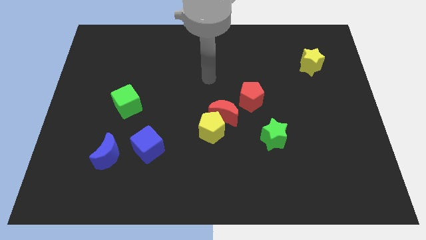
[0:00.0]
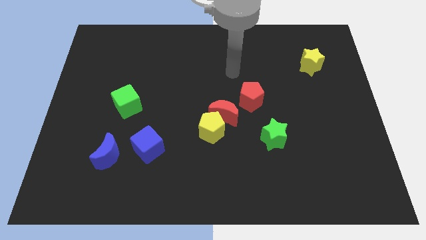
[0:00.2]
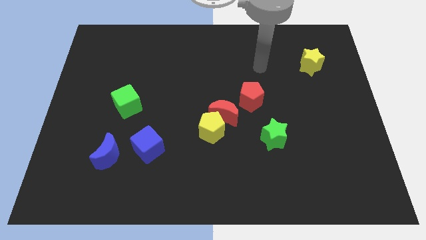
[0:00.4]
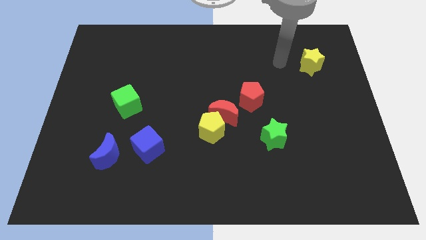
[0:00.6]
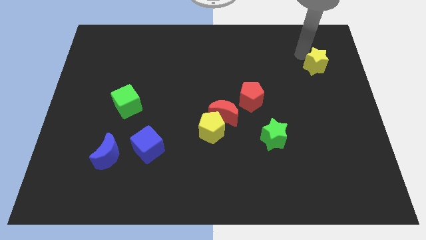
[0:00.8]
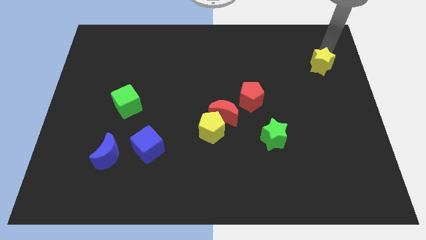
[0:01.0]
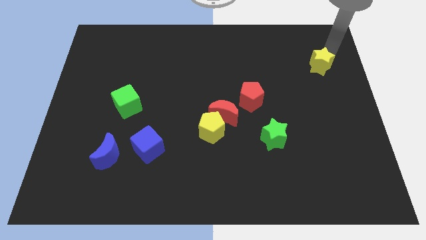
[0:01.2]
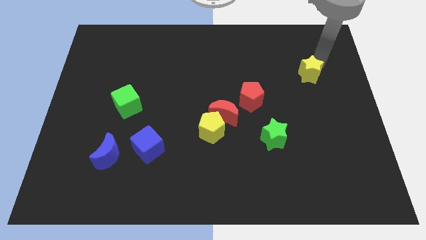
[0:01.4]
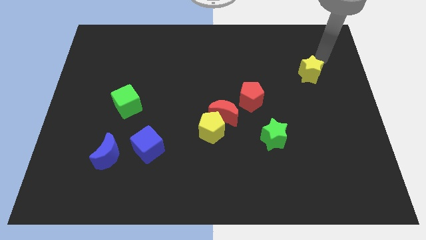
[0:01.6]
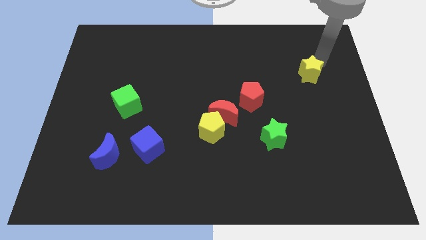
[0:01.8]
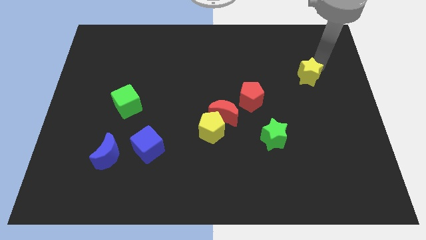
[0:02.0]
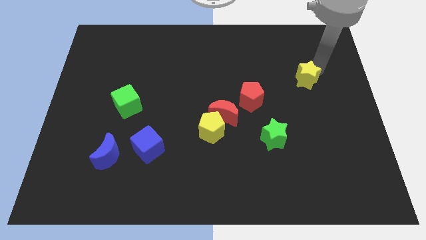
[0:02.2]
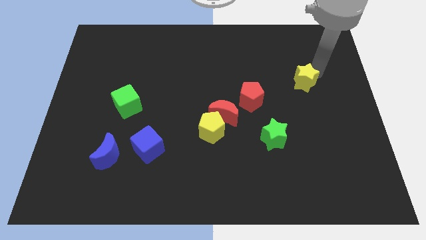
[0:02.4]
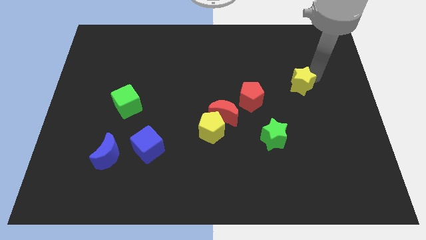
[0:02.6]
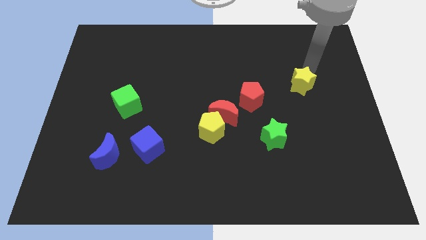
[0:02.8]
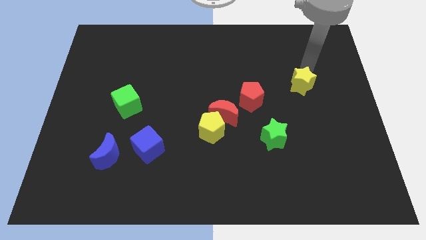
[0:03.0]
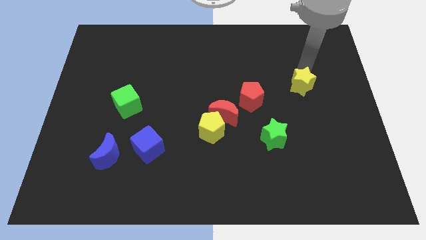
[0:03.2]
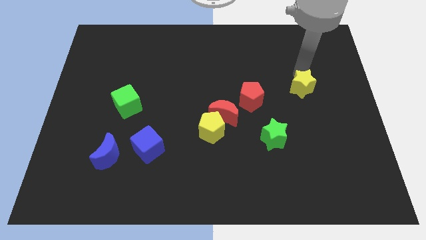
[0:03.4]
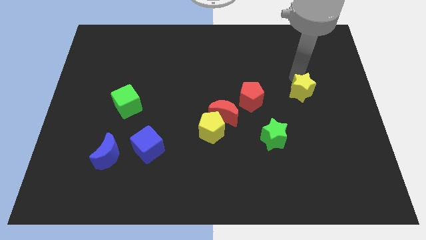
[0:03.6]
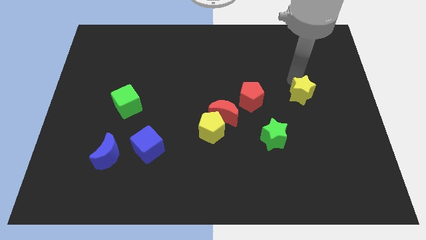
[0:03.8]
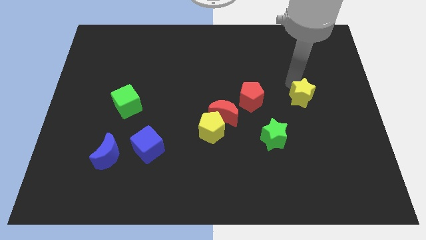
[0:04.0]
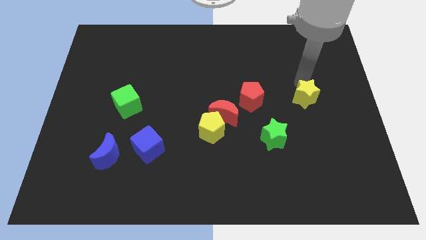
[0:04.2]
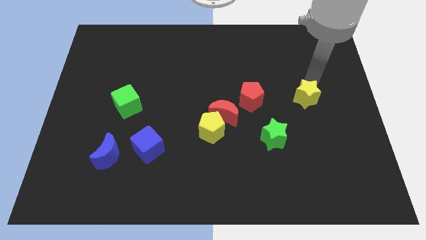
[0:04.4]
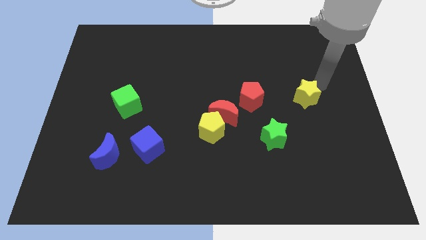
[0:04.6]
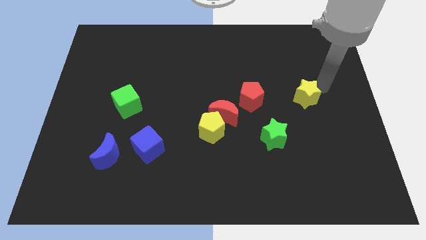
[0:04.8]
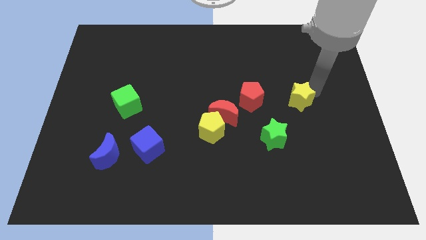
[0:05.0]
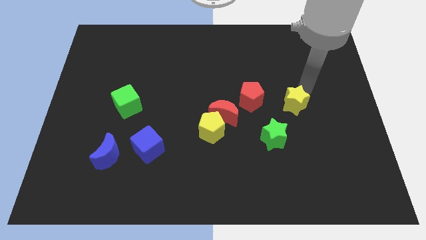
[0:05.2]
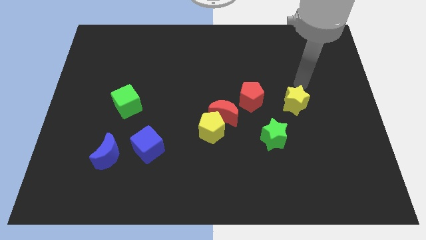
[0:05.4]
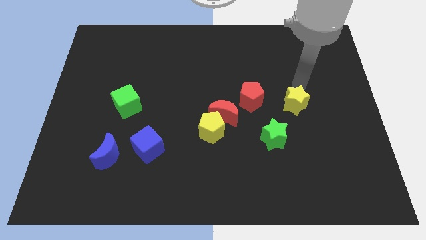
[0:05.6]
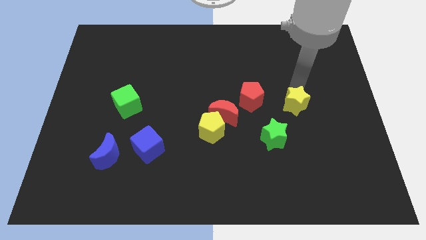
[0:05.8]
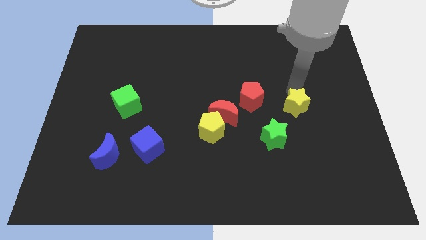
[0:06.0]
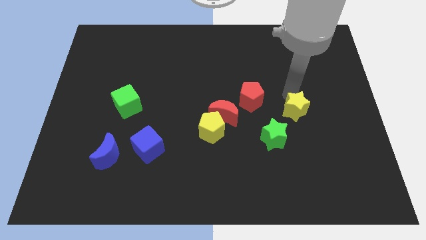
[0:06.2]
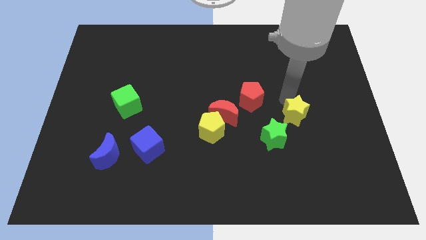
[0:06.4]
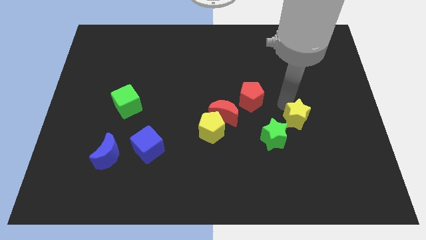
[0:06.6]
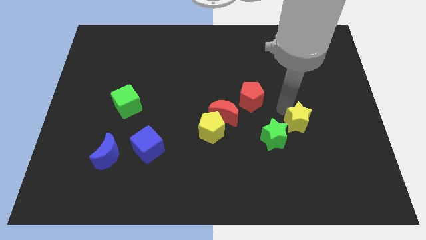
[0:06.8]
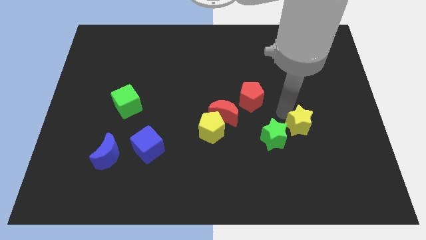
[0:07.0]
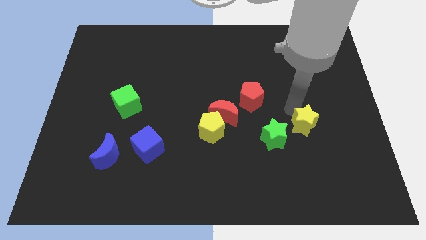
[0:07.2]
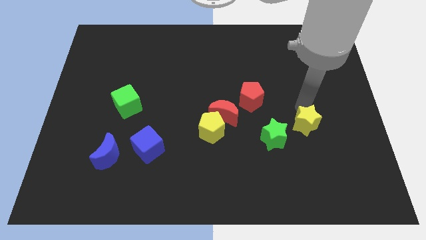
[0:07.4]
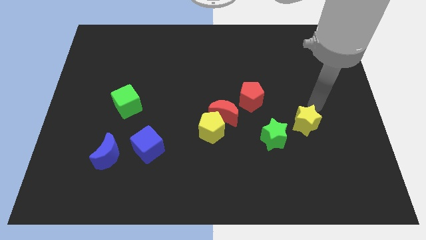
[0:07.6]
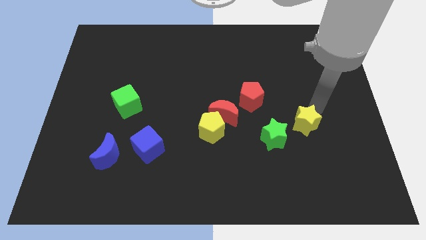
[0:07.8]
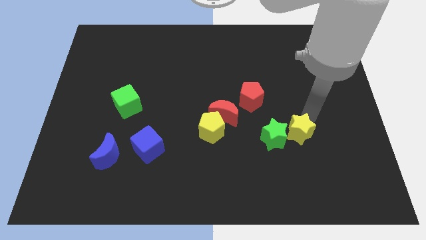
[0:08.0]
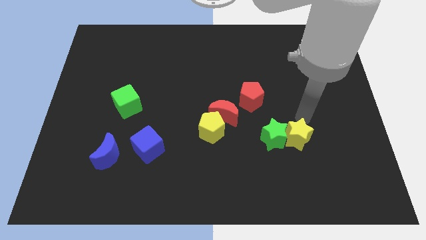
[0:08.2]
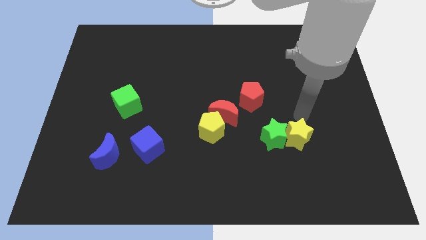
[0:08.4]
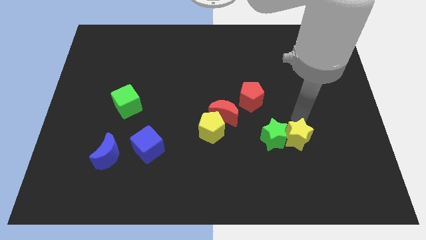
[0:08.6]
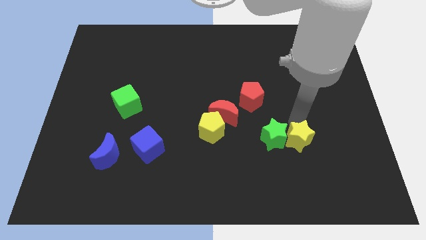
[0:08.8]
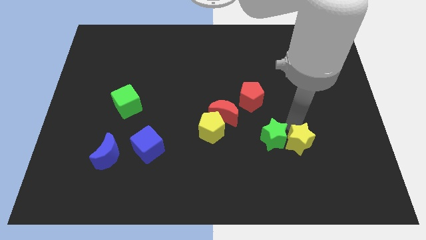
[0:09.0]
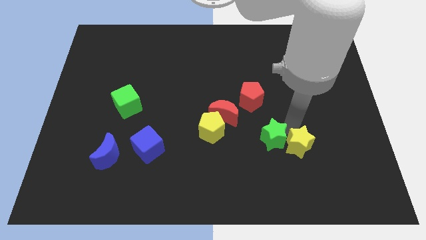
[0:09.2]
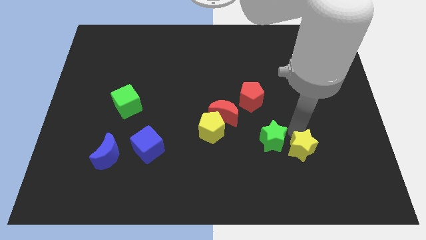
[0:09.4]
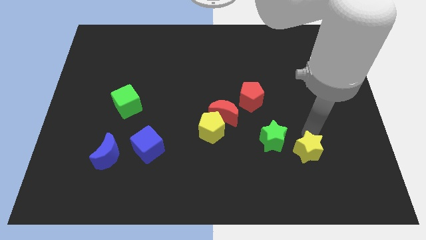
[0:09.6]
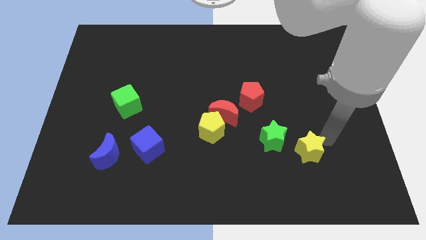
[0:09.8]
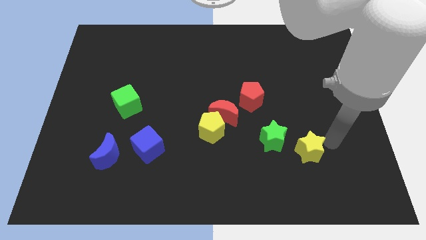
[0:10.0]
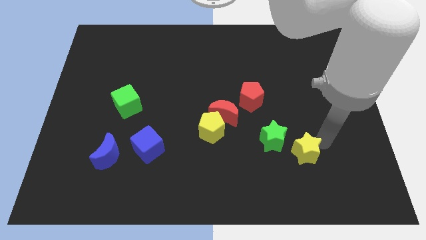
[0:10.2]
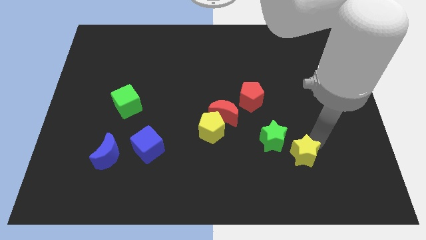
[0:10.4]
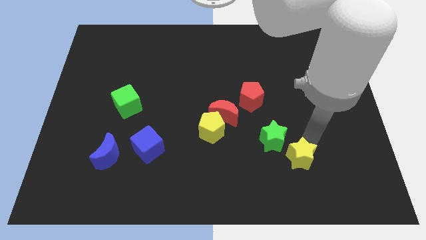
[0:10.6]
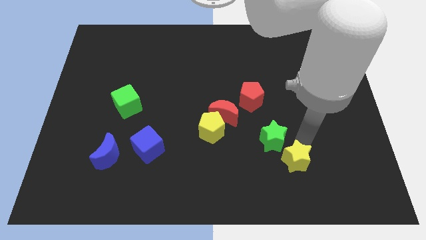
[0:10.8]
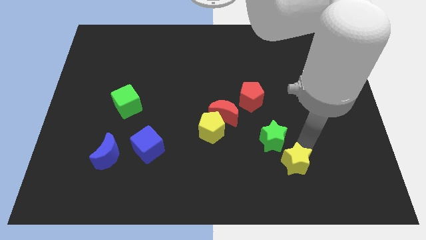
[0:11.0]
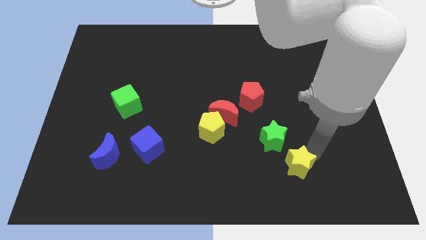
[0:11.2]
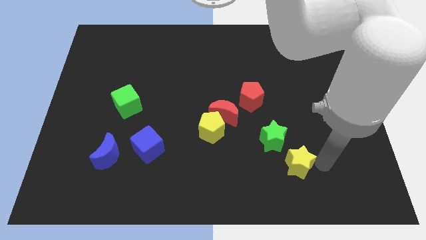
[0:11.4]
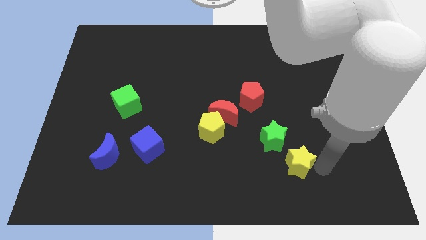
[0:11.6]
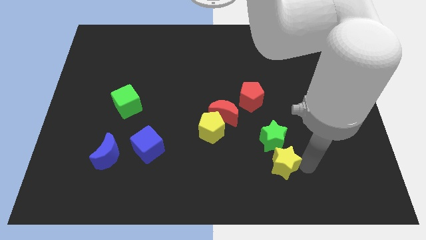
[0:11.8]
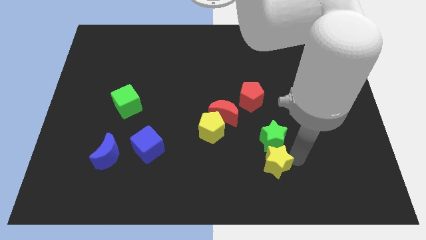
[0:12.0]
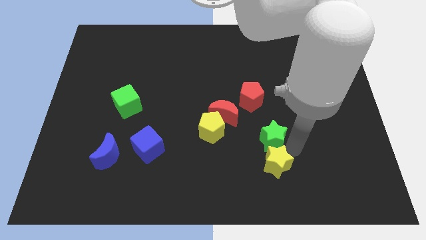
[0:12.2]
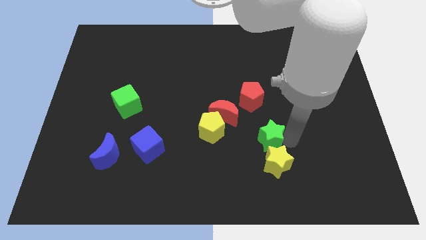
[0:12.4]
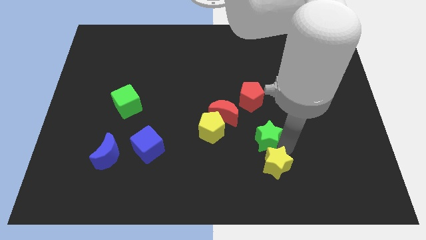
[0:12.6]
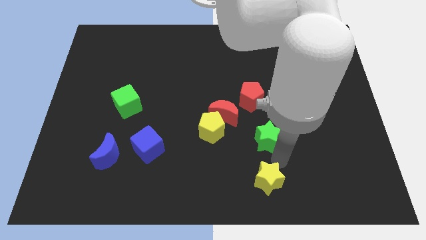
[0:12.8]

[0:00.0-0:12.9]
move the yellow star to the bottom
